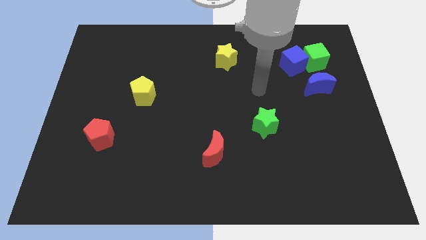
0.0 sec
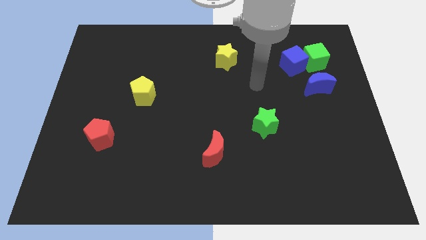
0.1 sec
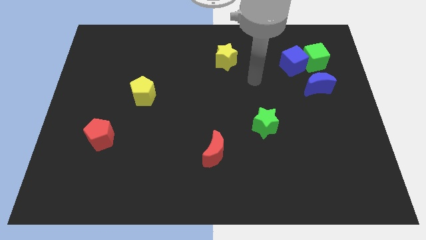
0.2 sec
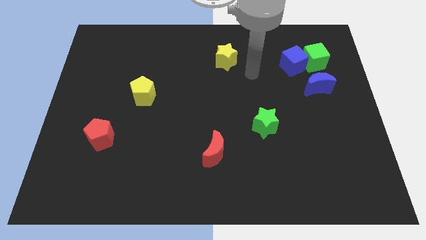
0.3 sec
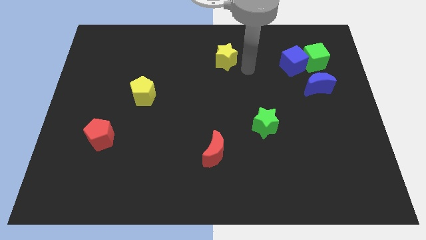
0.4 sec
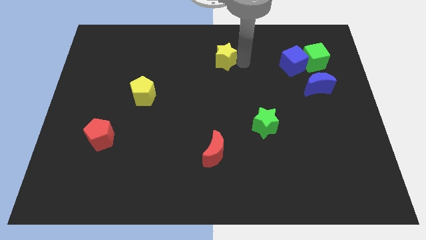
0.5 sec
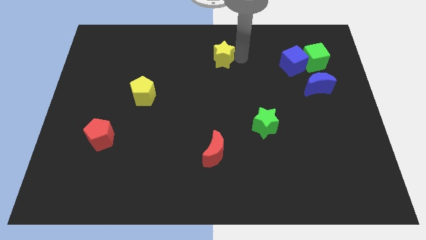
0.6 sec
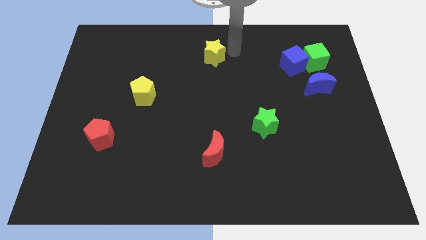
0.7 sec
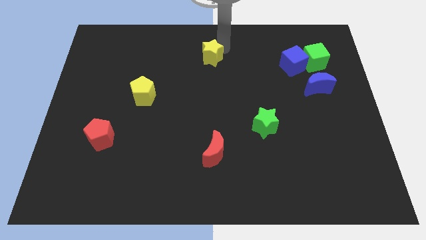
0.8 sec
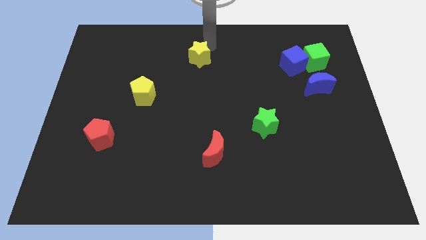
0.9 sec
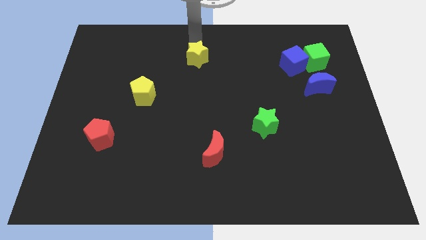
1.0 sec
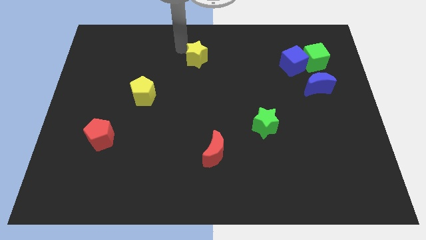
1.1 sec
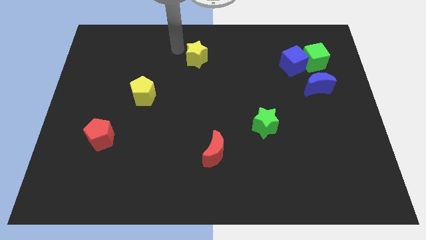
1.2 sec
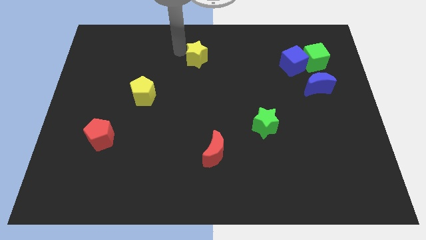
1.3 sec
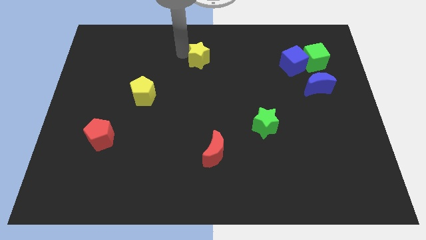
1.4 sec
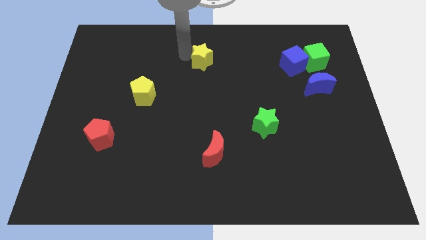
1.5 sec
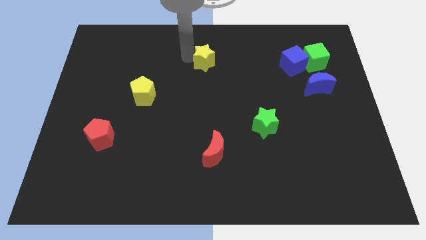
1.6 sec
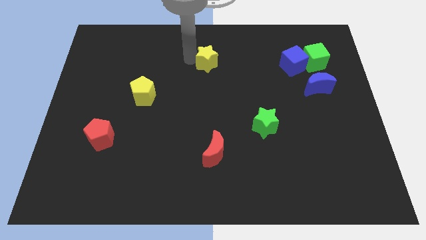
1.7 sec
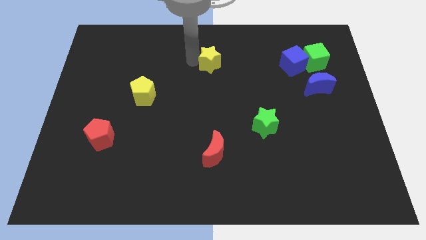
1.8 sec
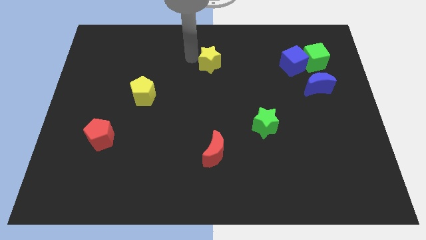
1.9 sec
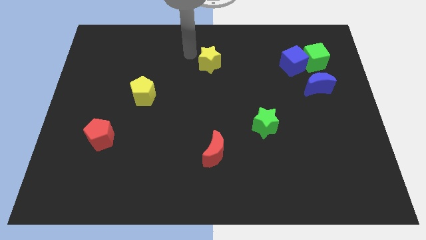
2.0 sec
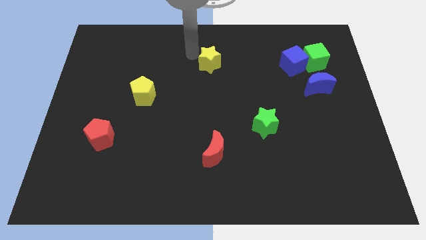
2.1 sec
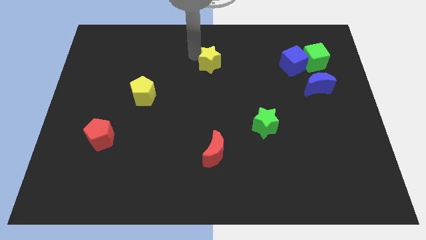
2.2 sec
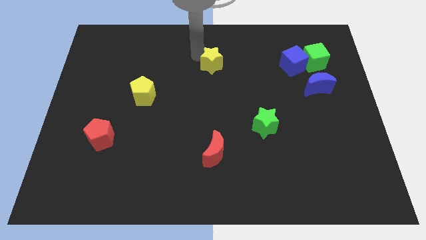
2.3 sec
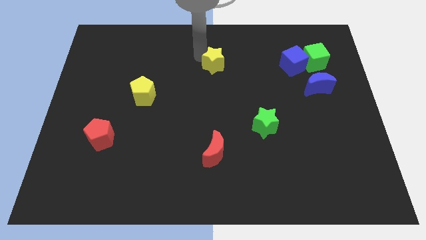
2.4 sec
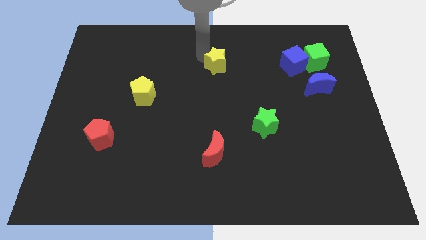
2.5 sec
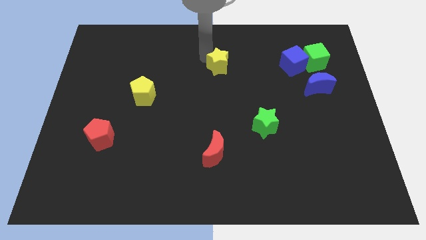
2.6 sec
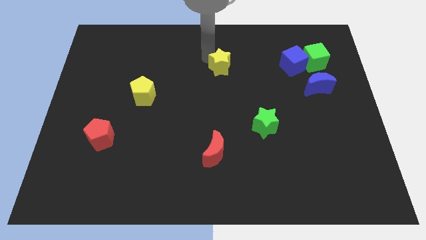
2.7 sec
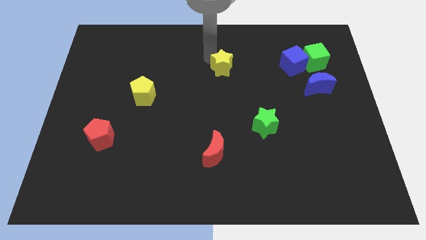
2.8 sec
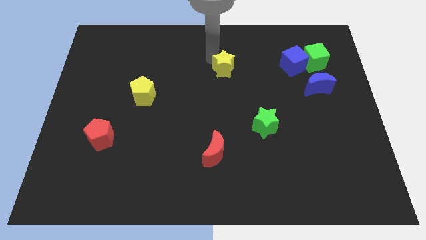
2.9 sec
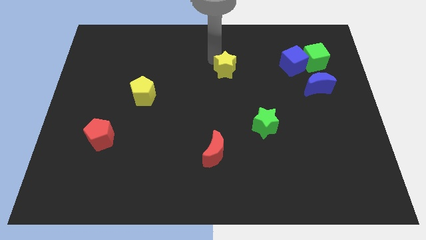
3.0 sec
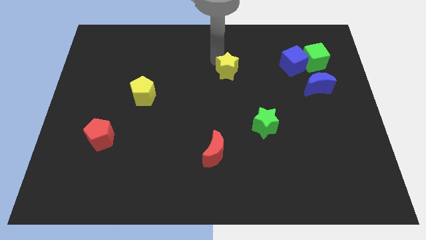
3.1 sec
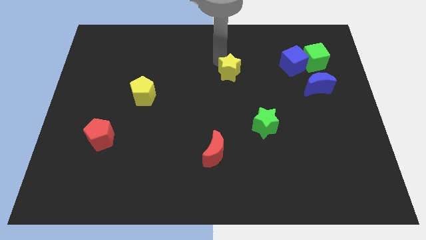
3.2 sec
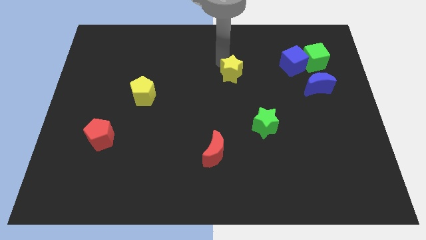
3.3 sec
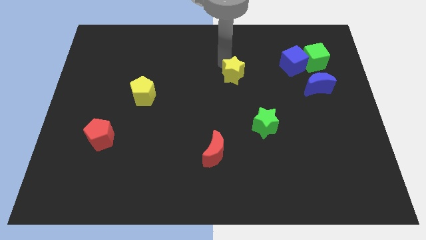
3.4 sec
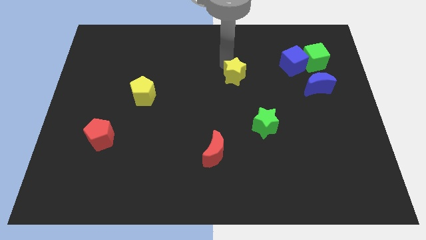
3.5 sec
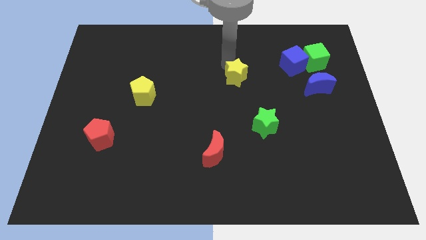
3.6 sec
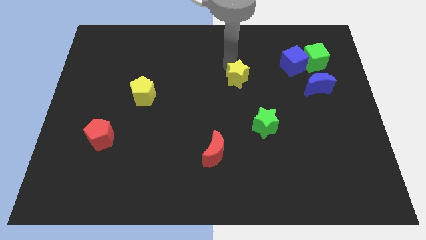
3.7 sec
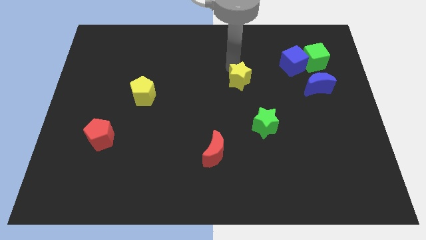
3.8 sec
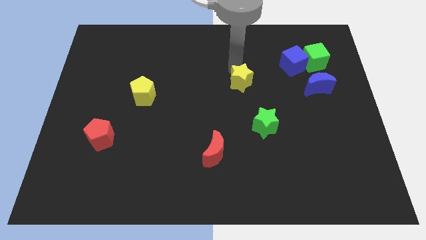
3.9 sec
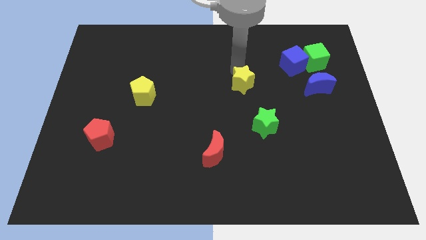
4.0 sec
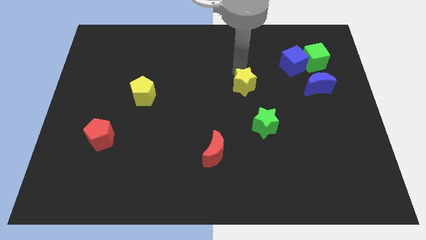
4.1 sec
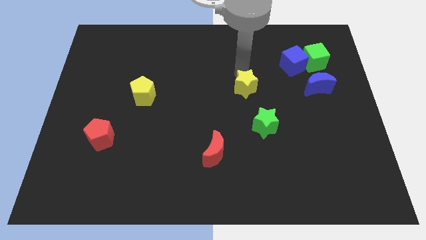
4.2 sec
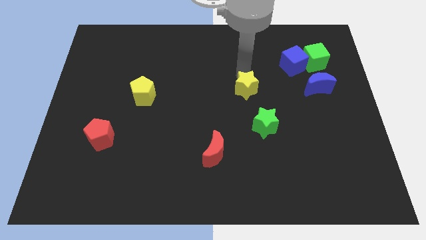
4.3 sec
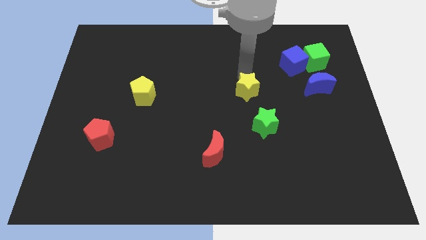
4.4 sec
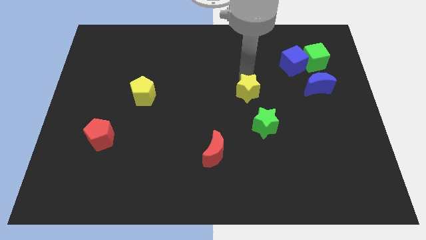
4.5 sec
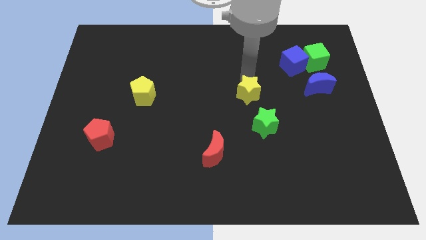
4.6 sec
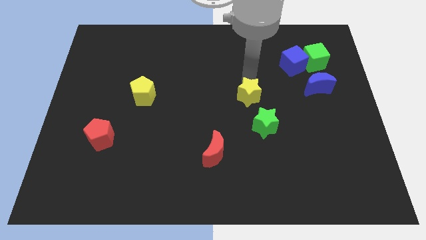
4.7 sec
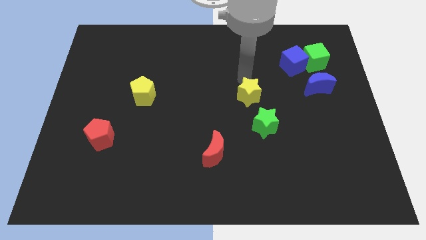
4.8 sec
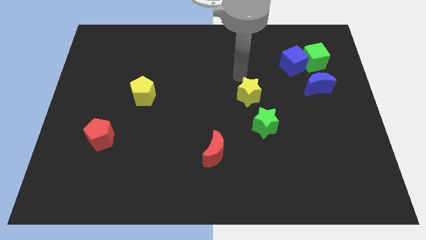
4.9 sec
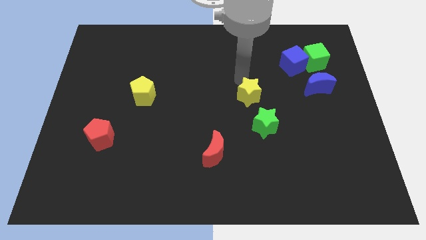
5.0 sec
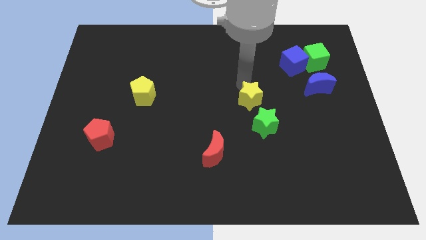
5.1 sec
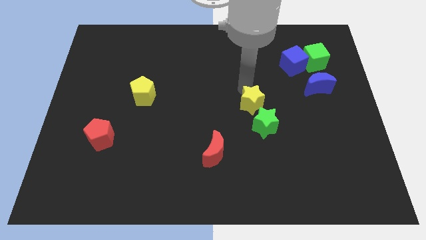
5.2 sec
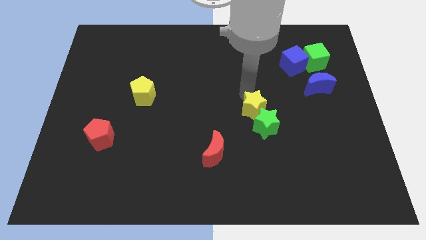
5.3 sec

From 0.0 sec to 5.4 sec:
move the yellow star to the green star

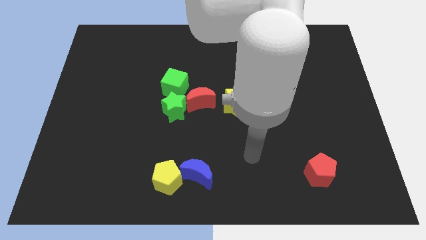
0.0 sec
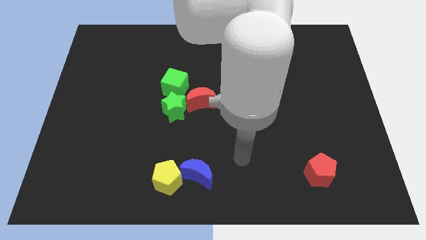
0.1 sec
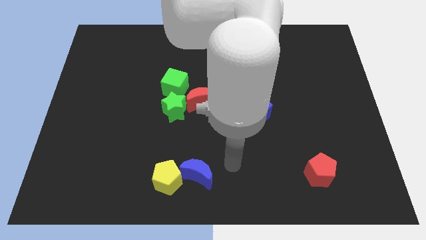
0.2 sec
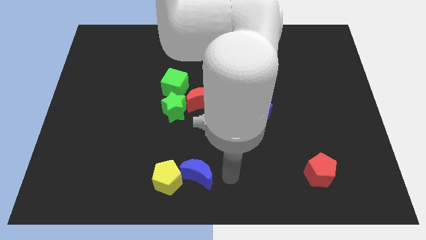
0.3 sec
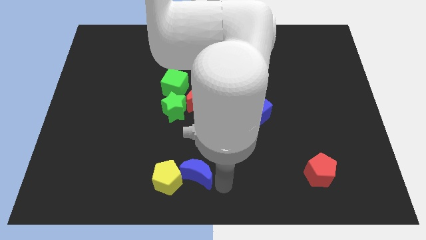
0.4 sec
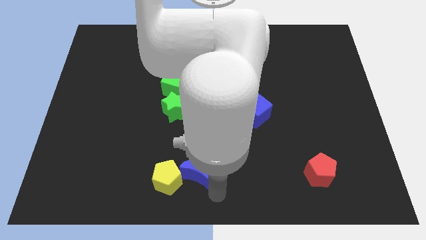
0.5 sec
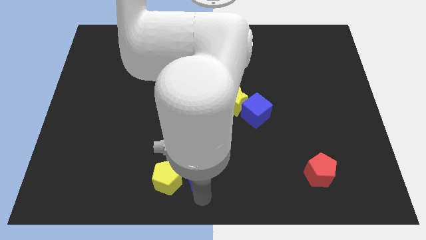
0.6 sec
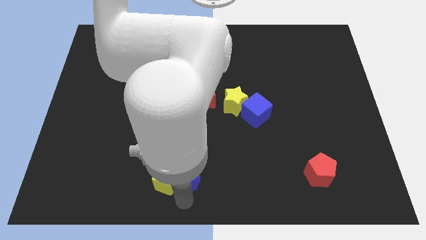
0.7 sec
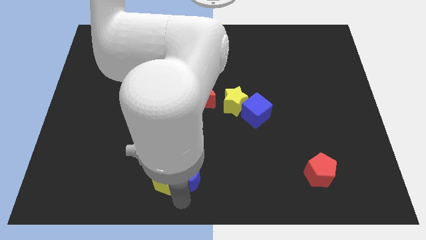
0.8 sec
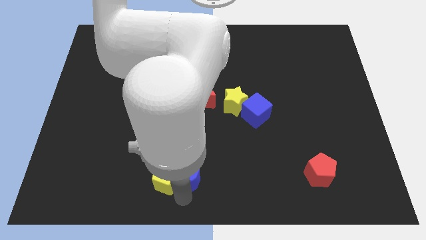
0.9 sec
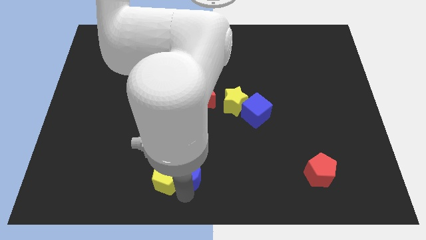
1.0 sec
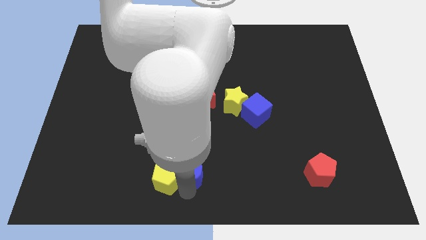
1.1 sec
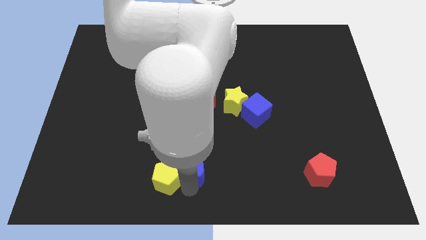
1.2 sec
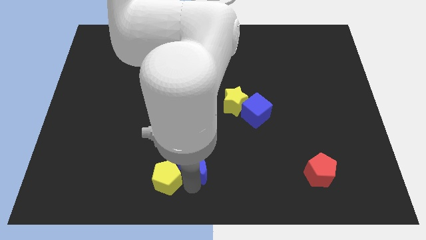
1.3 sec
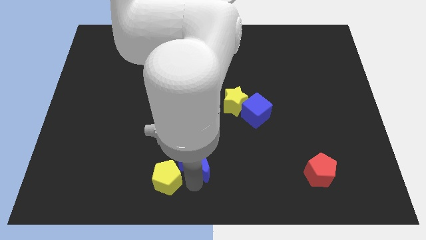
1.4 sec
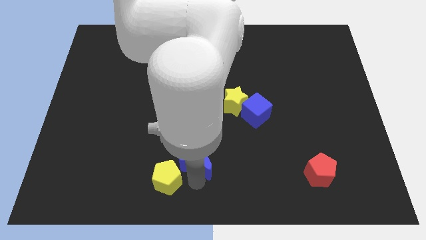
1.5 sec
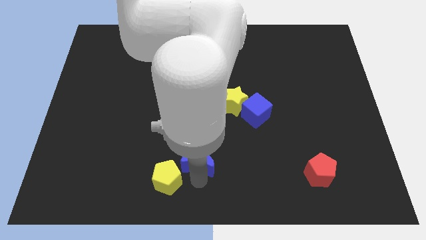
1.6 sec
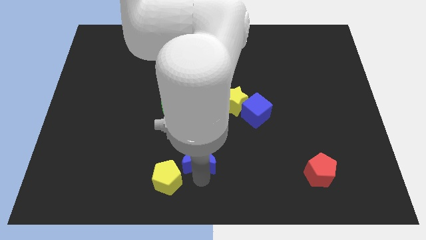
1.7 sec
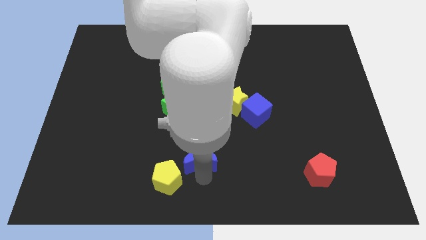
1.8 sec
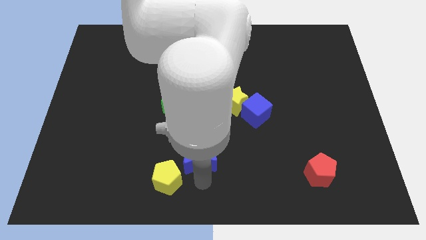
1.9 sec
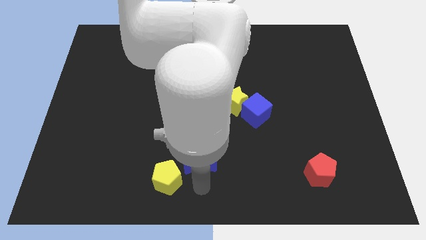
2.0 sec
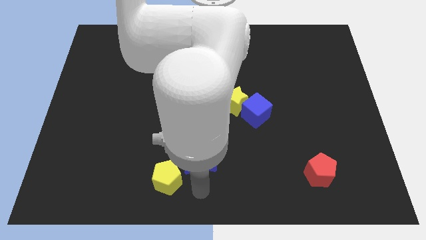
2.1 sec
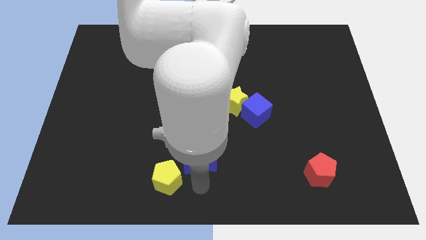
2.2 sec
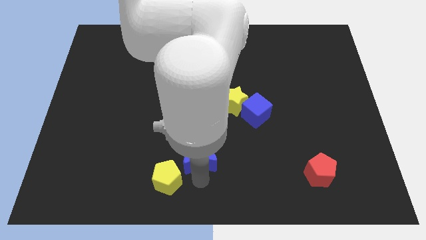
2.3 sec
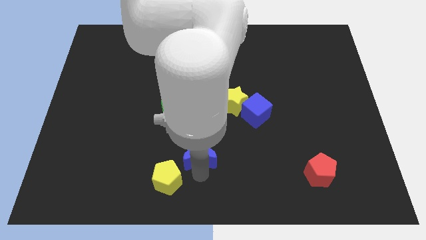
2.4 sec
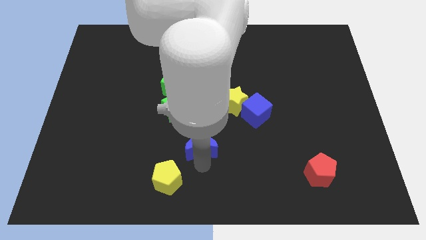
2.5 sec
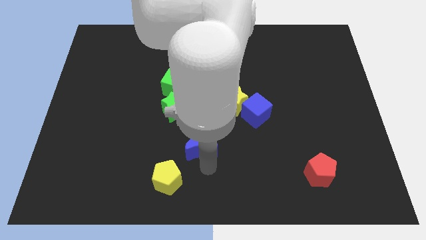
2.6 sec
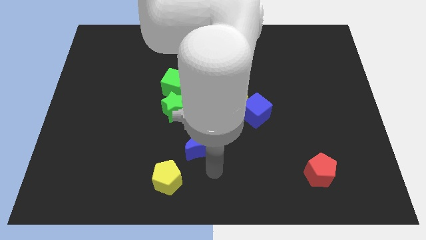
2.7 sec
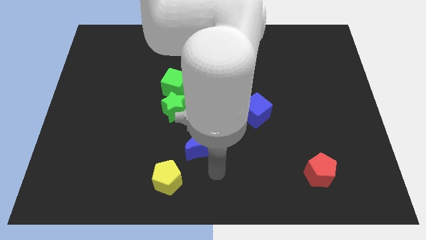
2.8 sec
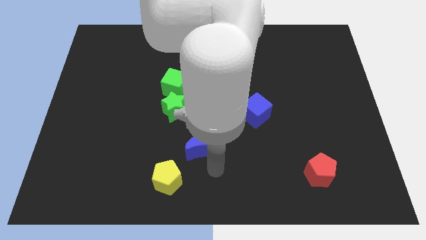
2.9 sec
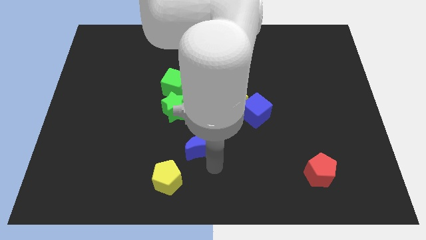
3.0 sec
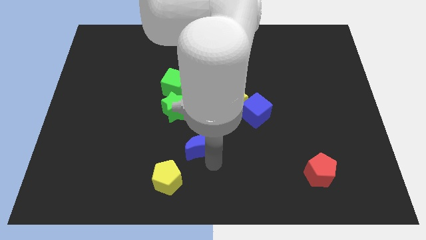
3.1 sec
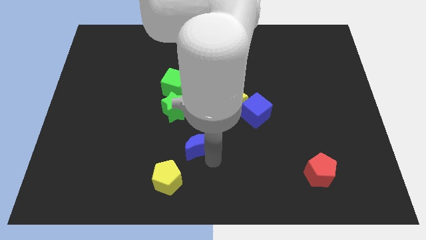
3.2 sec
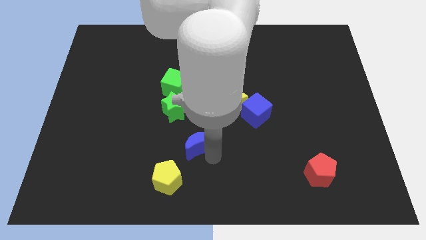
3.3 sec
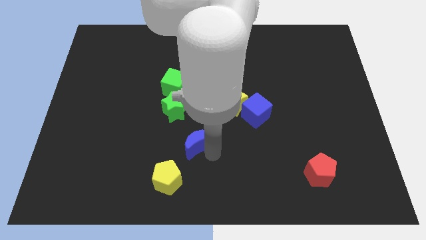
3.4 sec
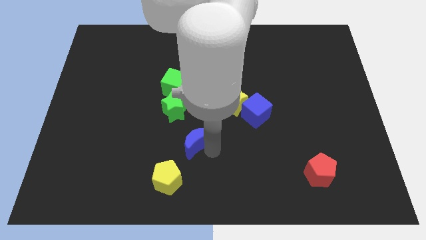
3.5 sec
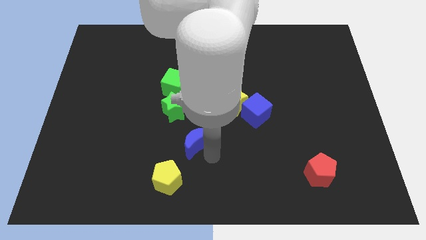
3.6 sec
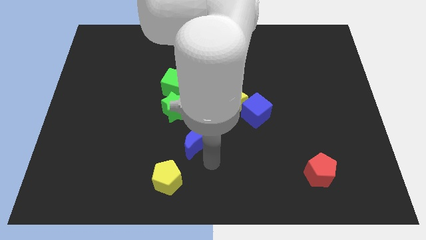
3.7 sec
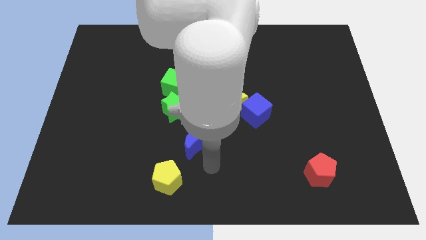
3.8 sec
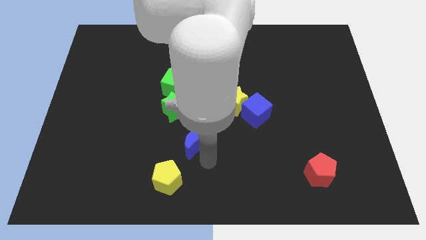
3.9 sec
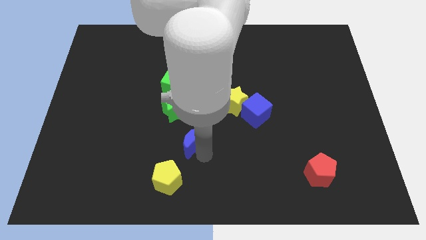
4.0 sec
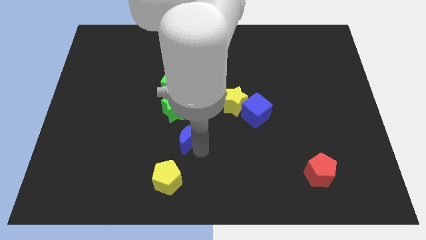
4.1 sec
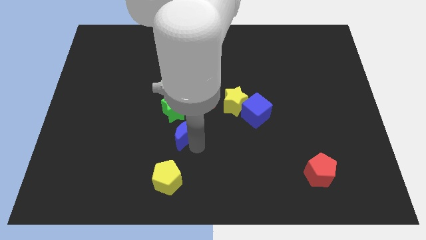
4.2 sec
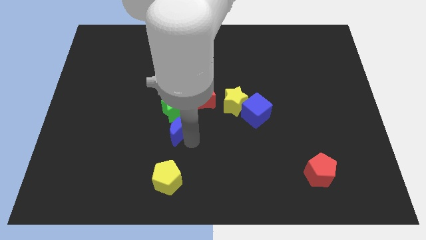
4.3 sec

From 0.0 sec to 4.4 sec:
slide the blue moon next to the green star
